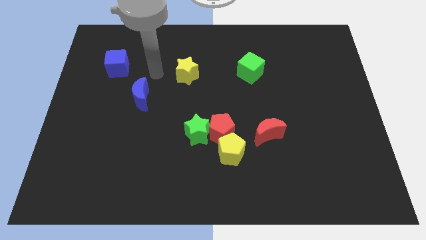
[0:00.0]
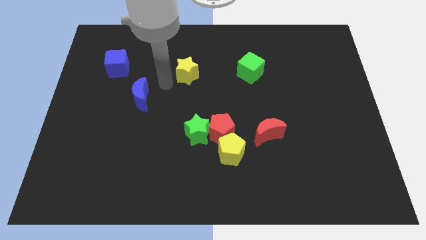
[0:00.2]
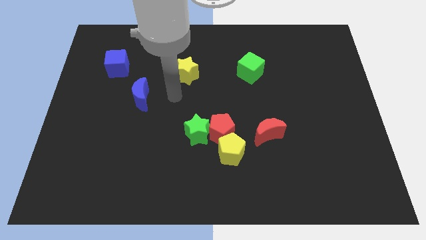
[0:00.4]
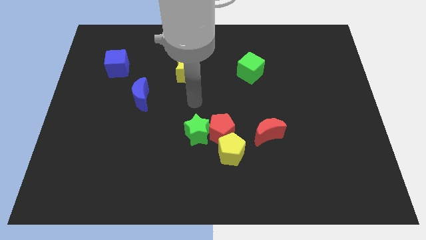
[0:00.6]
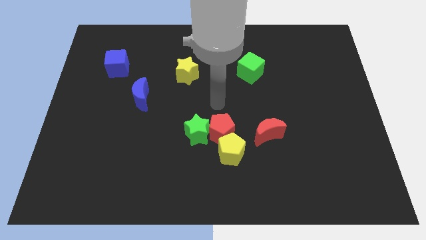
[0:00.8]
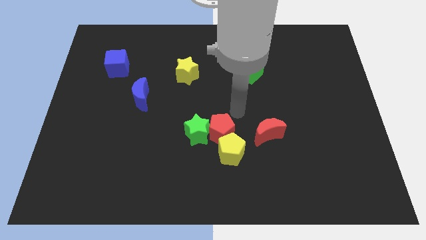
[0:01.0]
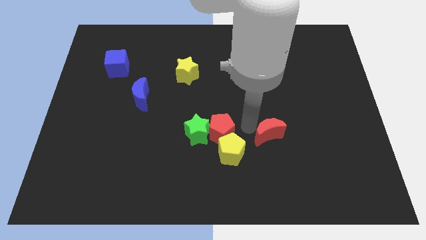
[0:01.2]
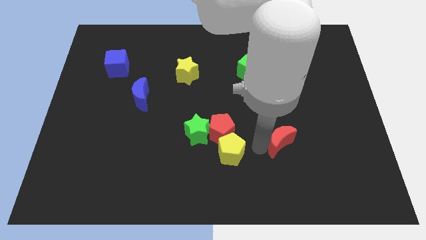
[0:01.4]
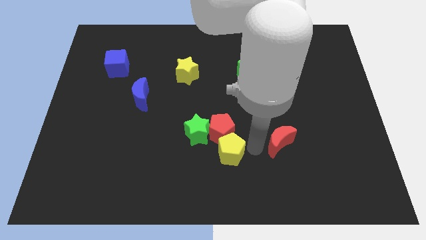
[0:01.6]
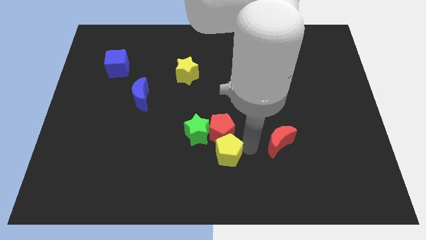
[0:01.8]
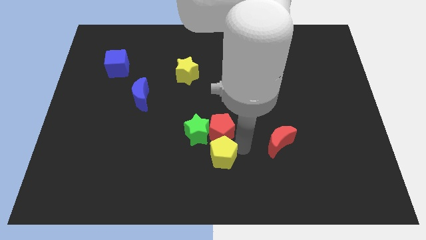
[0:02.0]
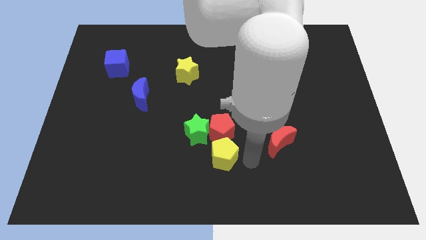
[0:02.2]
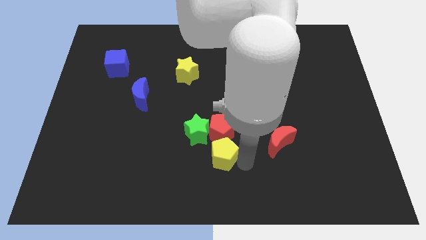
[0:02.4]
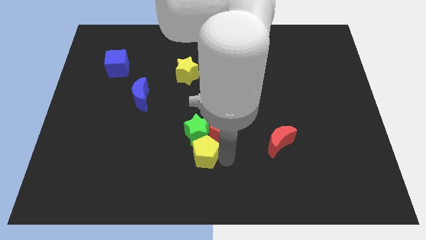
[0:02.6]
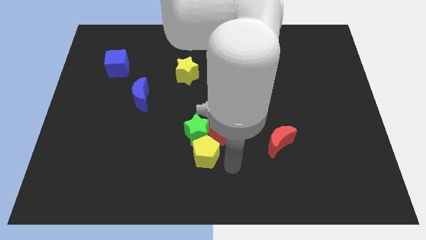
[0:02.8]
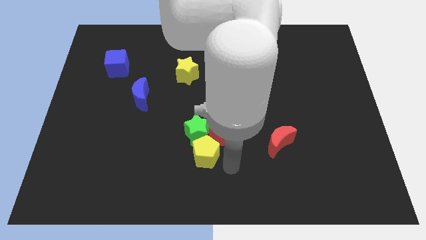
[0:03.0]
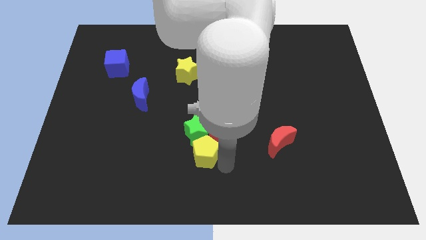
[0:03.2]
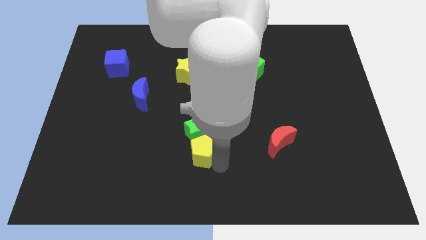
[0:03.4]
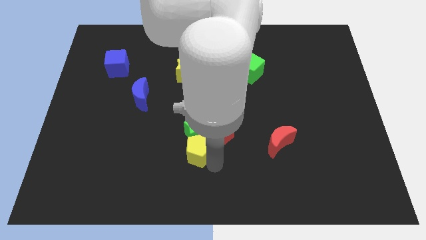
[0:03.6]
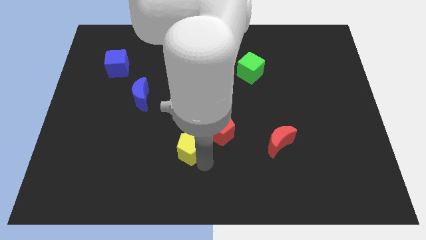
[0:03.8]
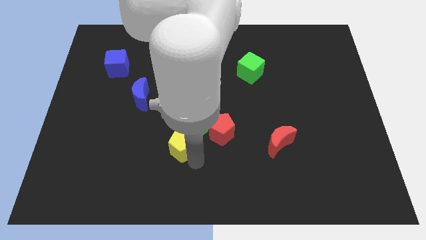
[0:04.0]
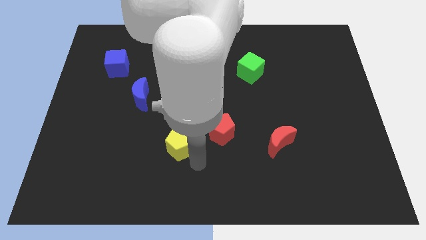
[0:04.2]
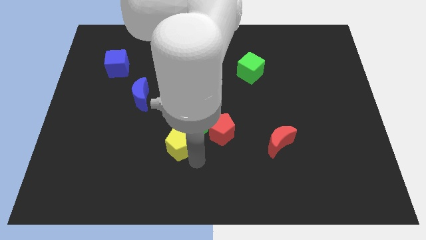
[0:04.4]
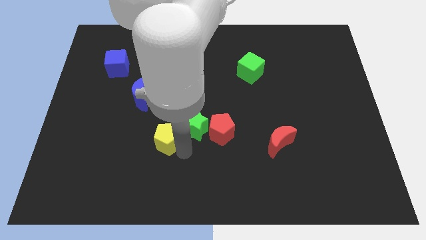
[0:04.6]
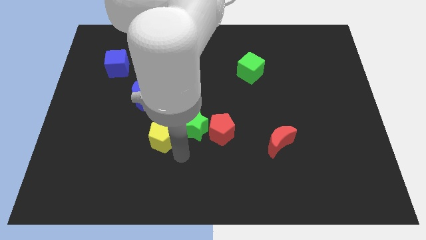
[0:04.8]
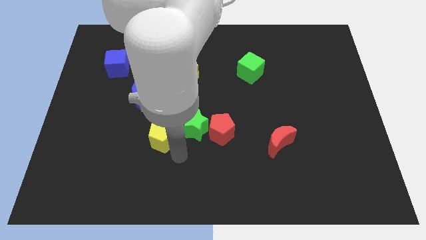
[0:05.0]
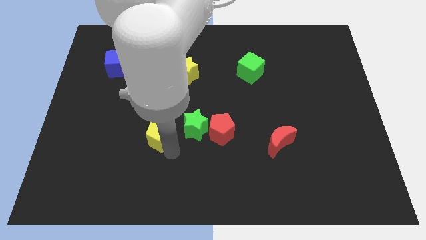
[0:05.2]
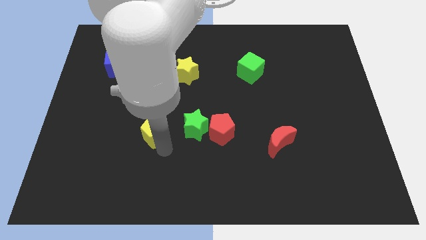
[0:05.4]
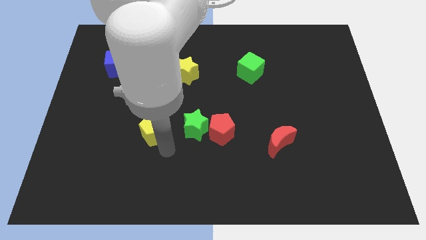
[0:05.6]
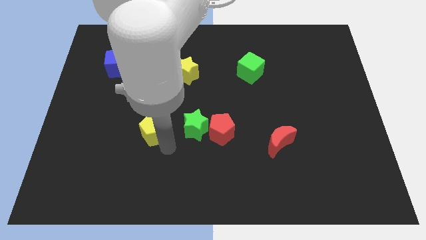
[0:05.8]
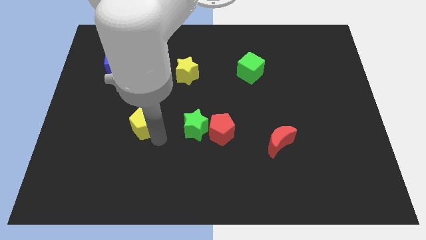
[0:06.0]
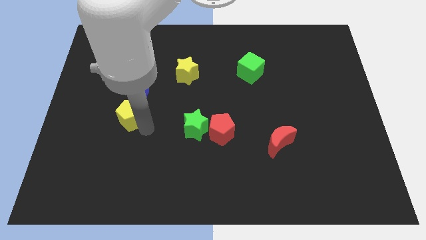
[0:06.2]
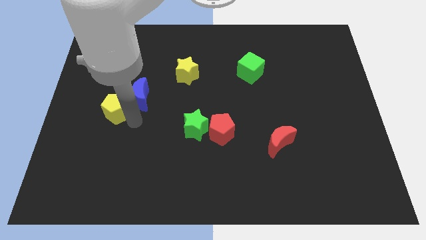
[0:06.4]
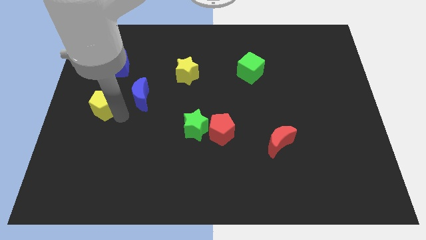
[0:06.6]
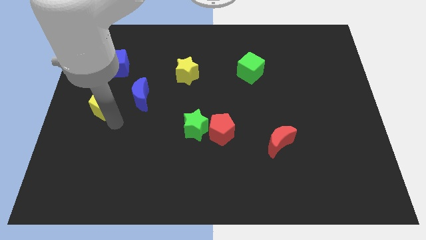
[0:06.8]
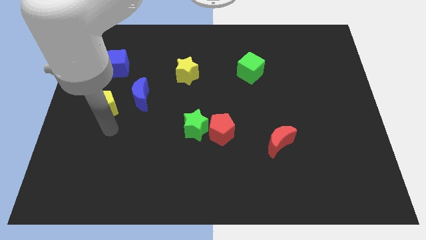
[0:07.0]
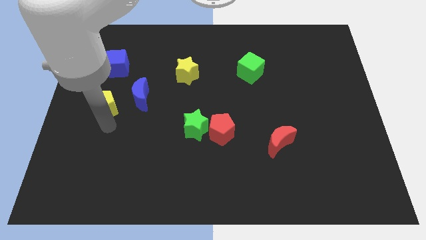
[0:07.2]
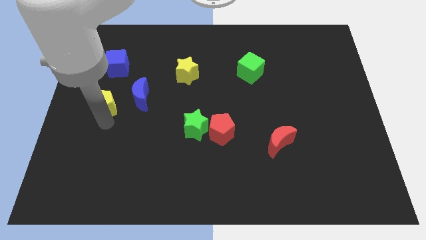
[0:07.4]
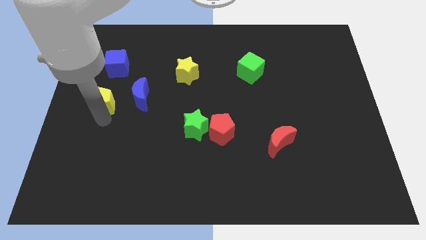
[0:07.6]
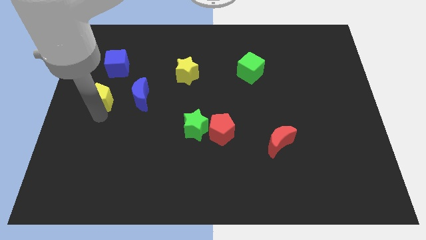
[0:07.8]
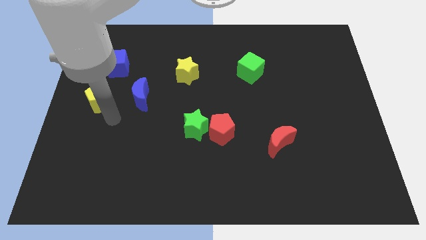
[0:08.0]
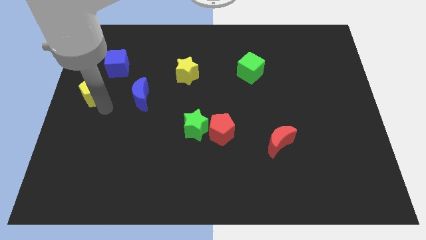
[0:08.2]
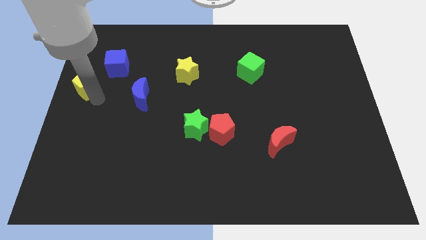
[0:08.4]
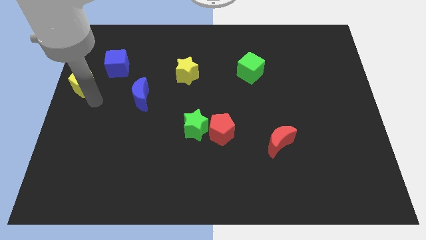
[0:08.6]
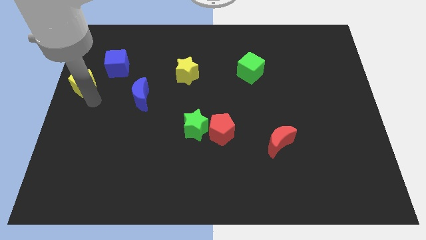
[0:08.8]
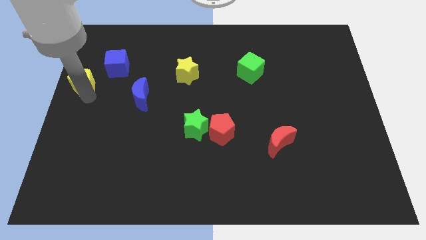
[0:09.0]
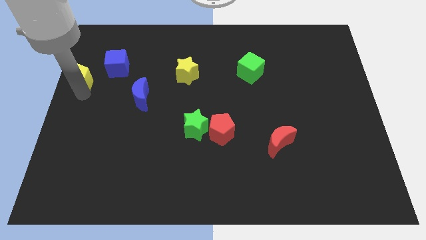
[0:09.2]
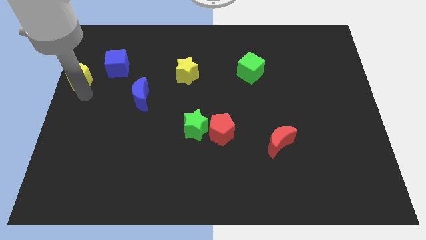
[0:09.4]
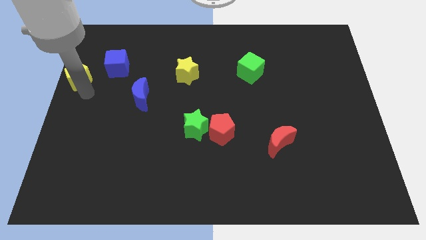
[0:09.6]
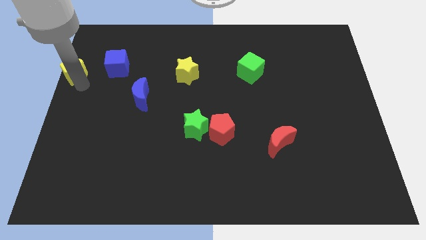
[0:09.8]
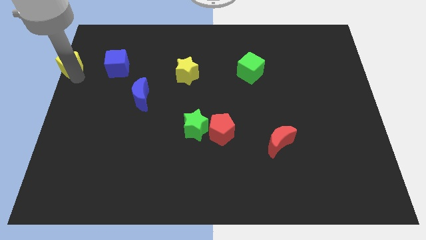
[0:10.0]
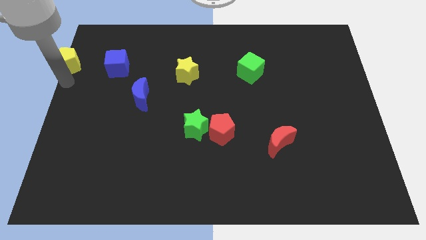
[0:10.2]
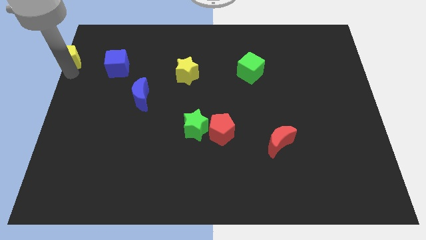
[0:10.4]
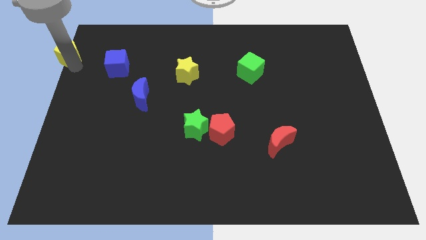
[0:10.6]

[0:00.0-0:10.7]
move the yellow pentagon to the top left of the board
